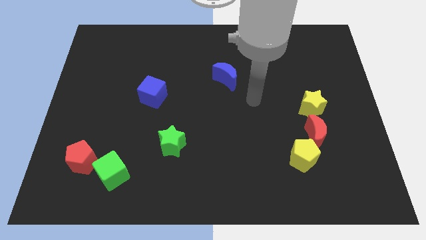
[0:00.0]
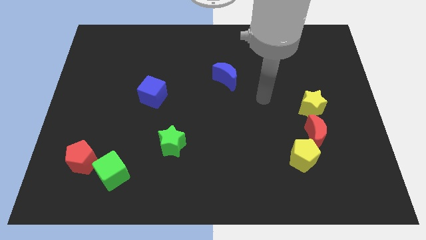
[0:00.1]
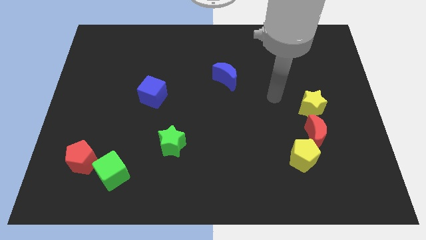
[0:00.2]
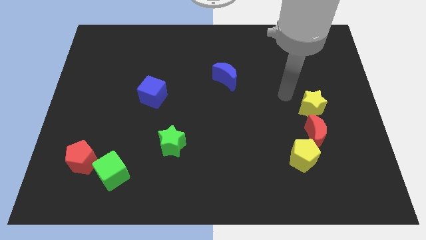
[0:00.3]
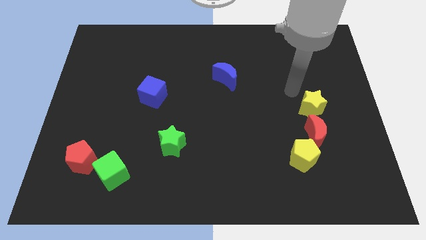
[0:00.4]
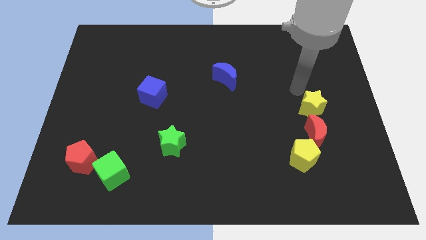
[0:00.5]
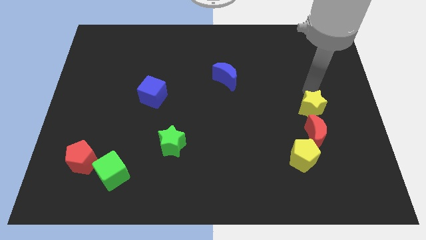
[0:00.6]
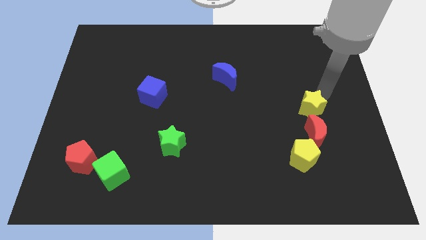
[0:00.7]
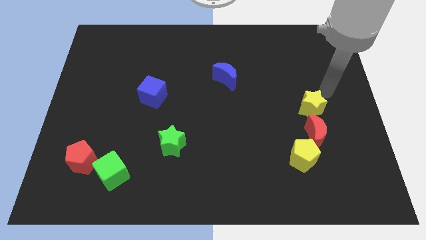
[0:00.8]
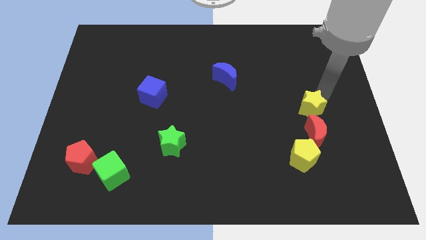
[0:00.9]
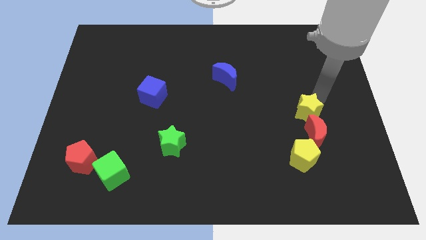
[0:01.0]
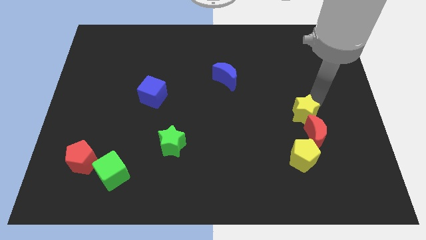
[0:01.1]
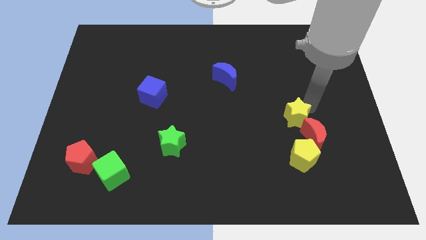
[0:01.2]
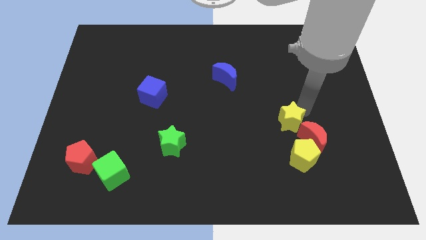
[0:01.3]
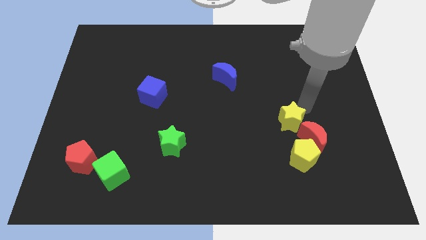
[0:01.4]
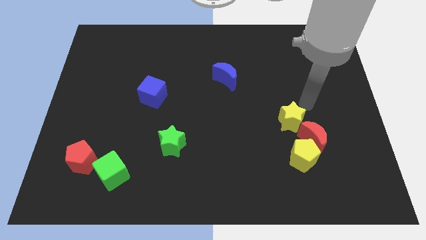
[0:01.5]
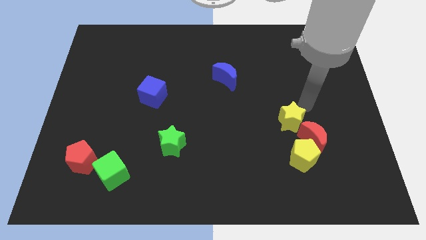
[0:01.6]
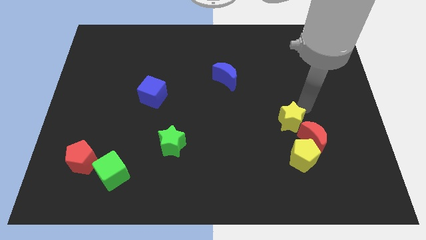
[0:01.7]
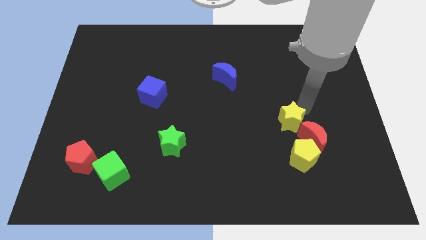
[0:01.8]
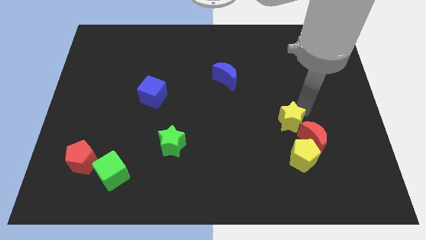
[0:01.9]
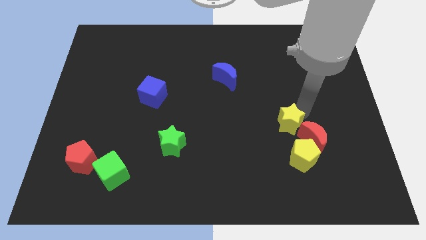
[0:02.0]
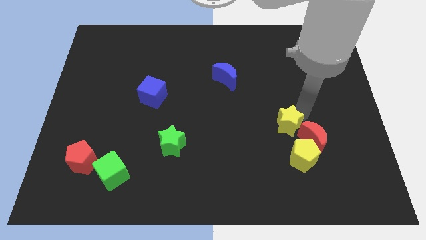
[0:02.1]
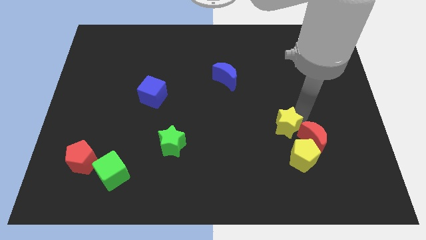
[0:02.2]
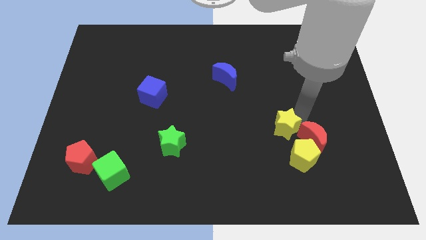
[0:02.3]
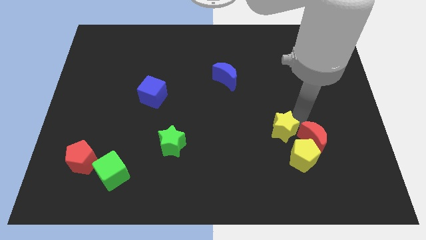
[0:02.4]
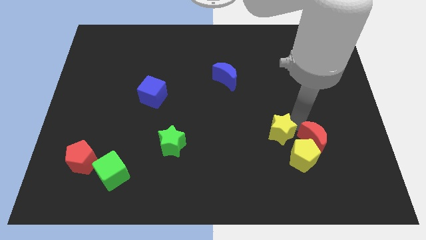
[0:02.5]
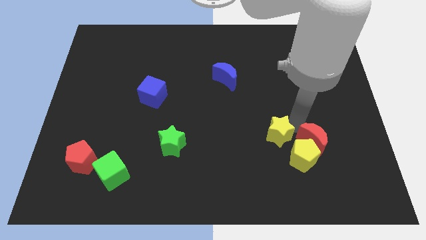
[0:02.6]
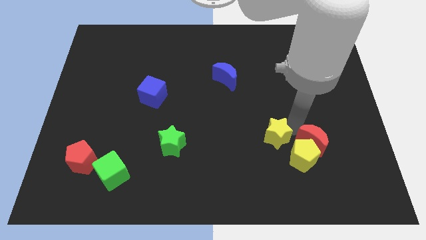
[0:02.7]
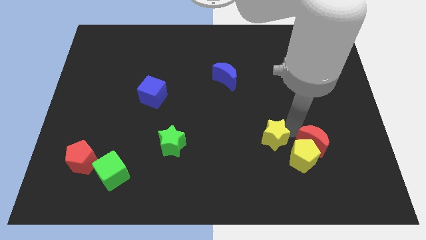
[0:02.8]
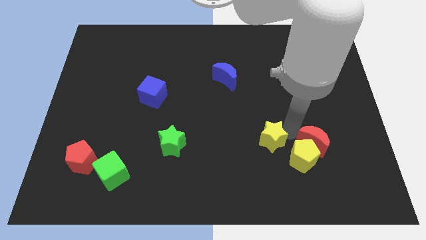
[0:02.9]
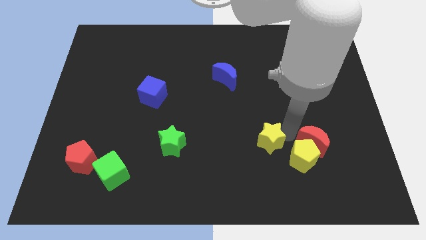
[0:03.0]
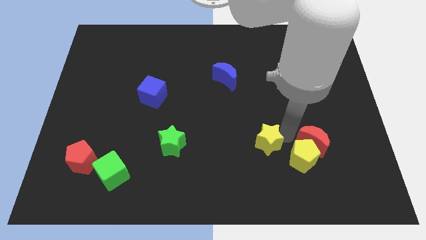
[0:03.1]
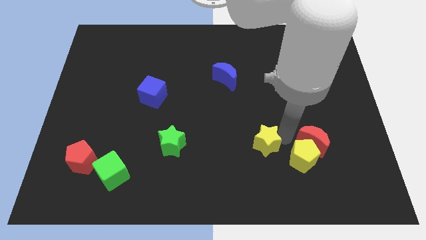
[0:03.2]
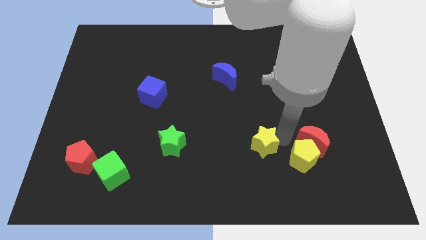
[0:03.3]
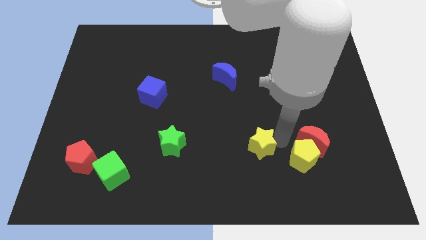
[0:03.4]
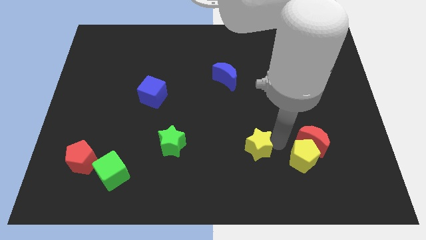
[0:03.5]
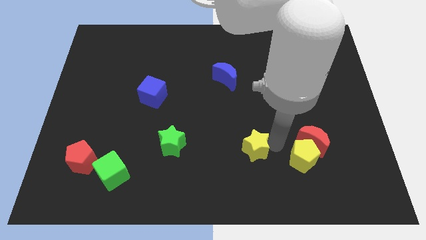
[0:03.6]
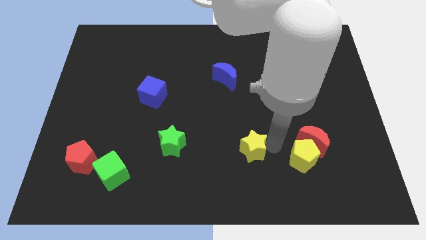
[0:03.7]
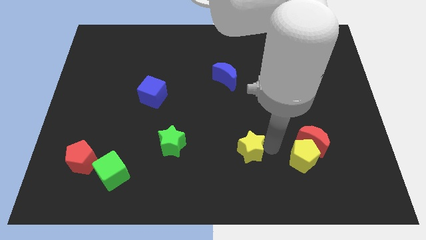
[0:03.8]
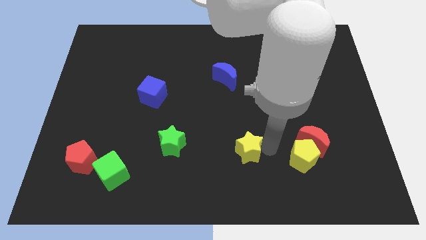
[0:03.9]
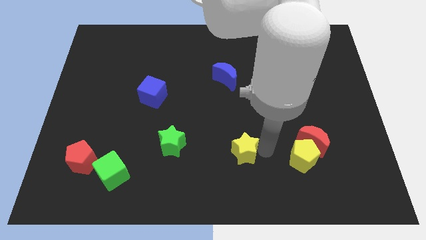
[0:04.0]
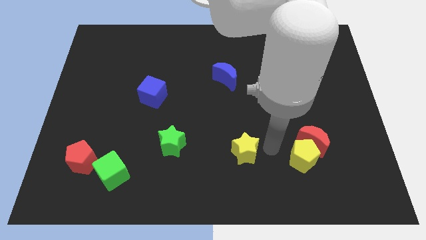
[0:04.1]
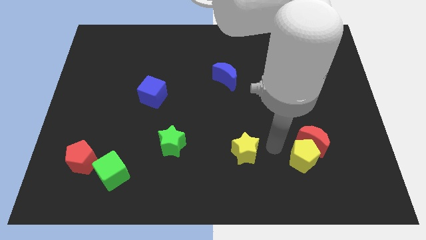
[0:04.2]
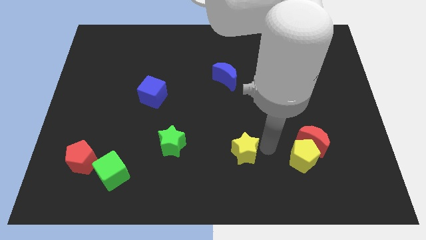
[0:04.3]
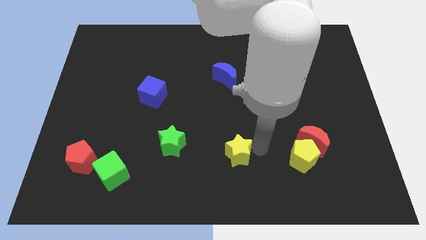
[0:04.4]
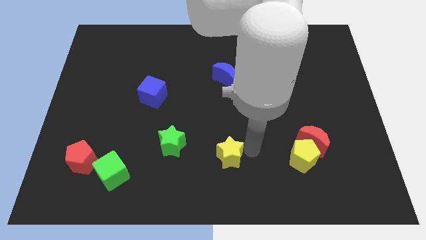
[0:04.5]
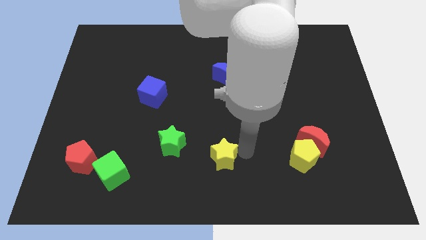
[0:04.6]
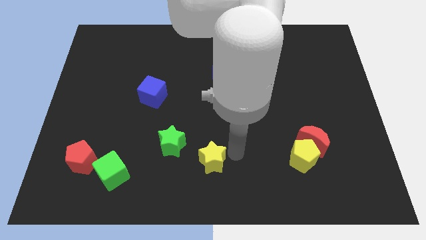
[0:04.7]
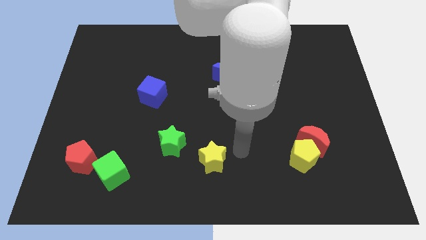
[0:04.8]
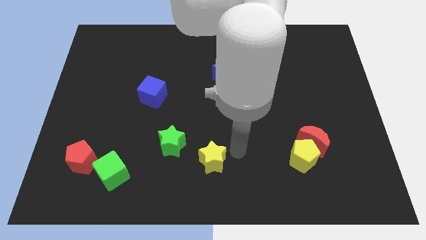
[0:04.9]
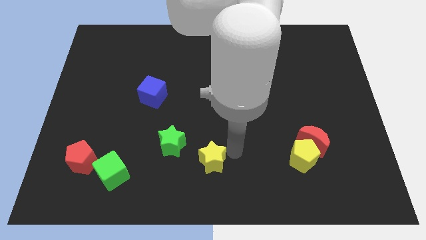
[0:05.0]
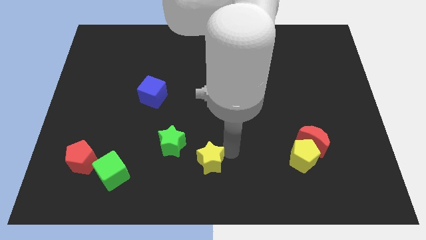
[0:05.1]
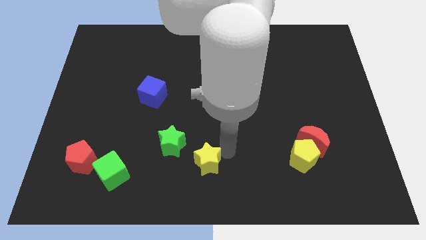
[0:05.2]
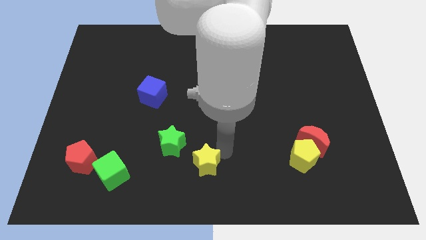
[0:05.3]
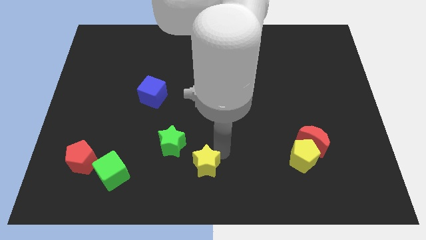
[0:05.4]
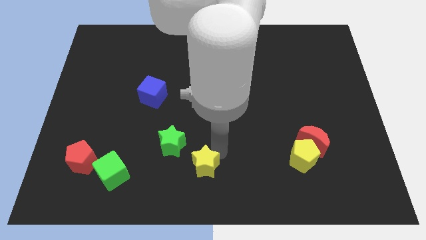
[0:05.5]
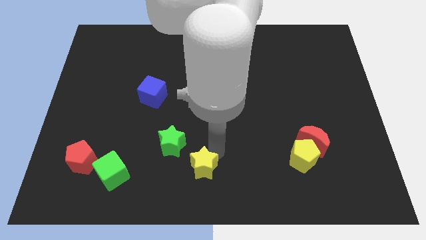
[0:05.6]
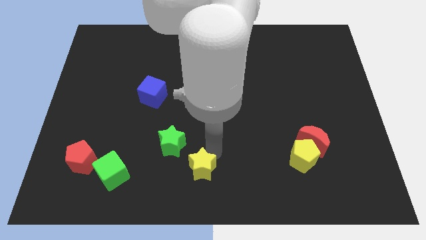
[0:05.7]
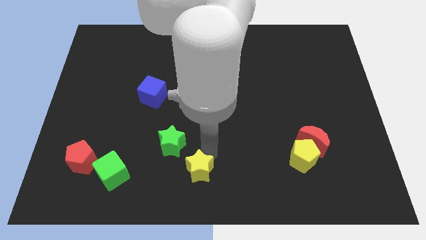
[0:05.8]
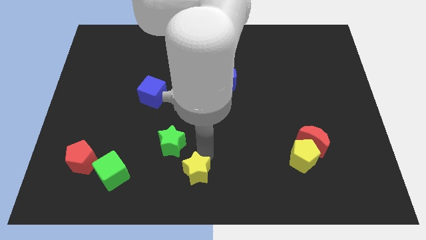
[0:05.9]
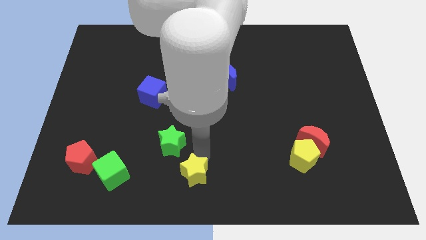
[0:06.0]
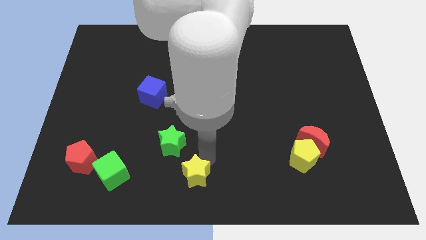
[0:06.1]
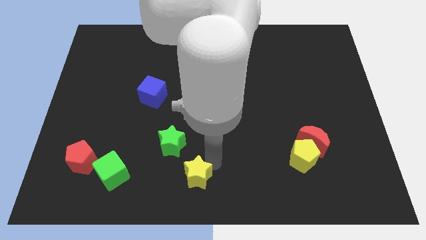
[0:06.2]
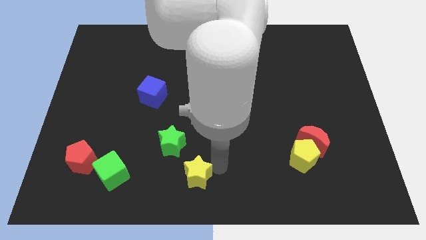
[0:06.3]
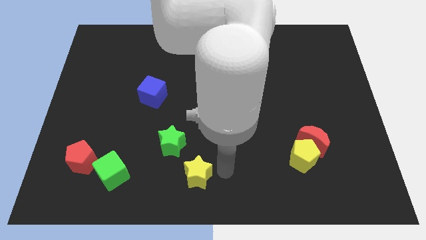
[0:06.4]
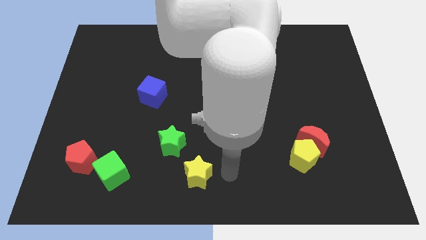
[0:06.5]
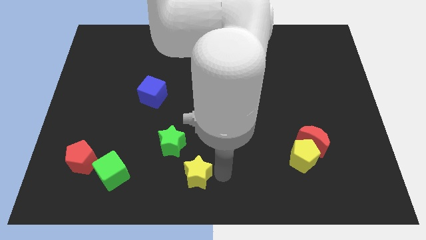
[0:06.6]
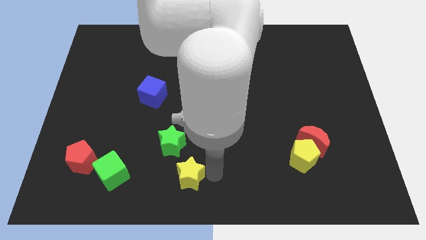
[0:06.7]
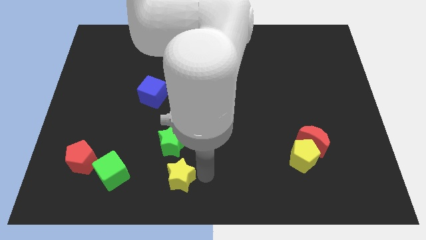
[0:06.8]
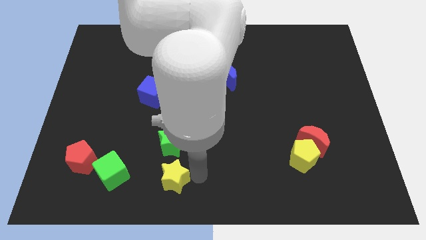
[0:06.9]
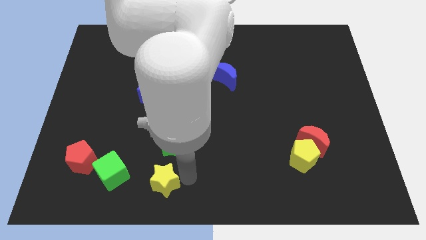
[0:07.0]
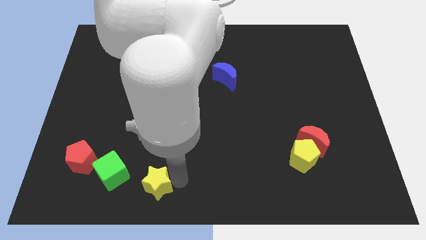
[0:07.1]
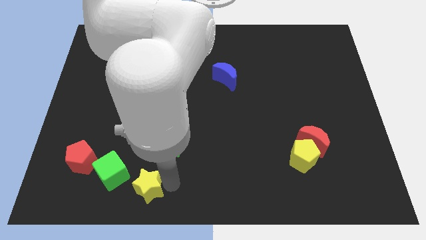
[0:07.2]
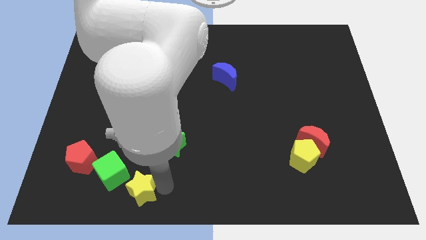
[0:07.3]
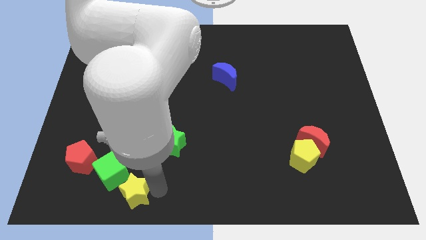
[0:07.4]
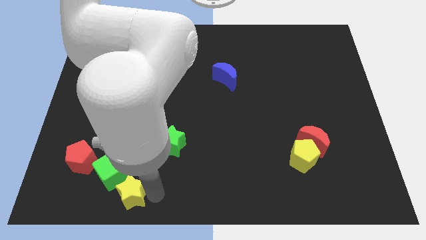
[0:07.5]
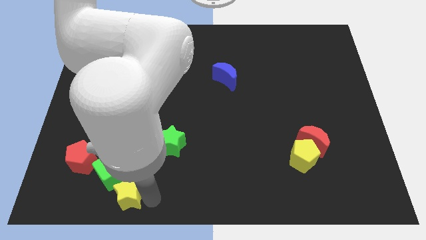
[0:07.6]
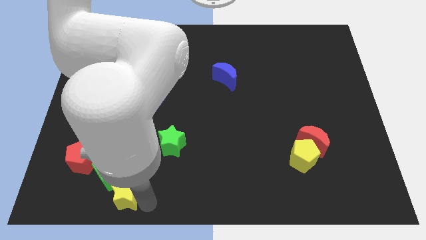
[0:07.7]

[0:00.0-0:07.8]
push the yellow star towards the green cube

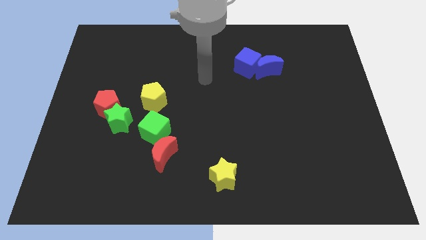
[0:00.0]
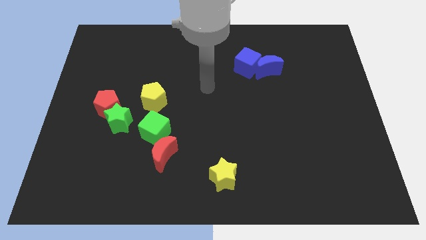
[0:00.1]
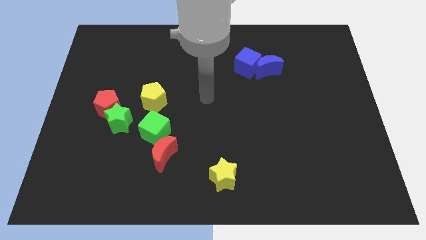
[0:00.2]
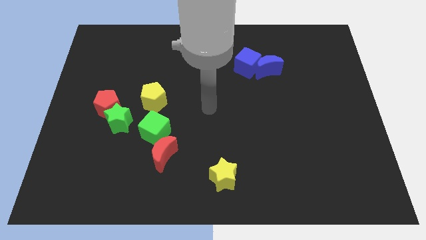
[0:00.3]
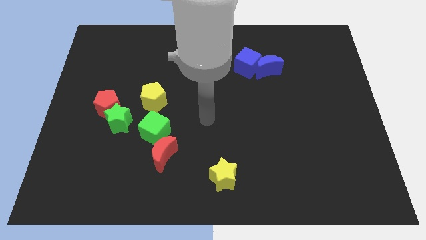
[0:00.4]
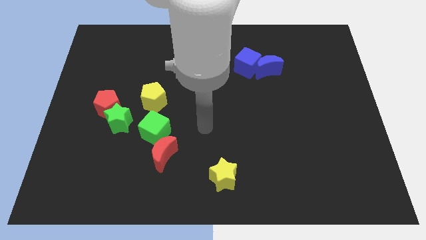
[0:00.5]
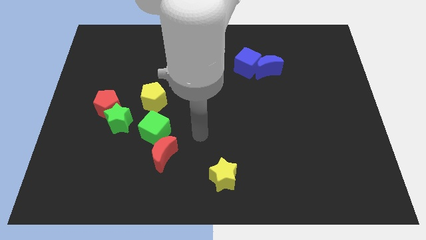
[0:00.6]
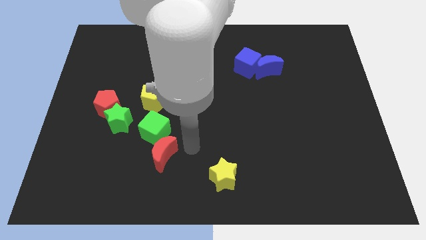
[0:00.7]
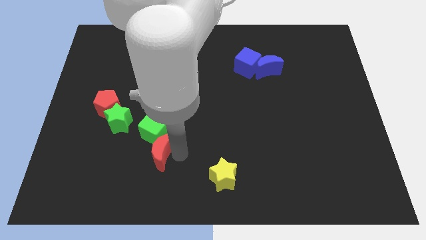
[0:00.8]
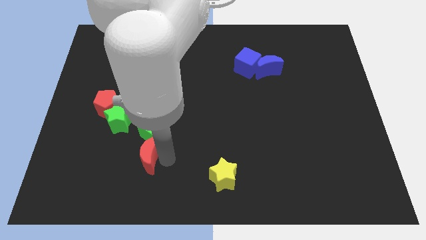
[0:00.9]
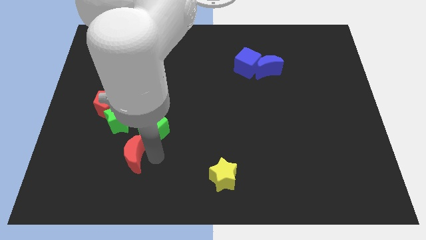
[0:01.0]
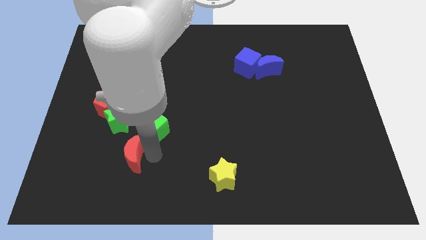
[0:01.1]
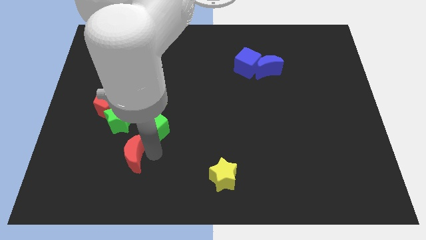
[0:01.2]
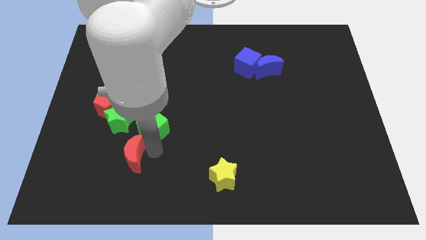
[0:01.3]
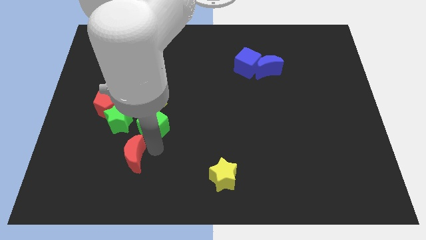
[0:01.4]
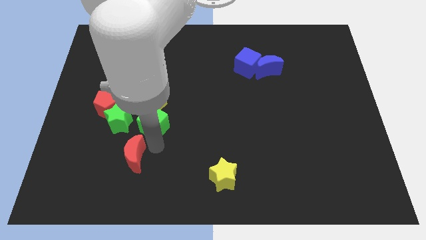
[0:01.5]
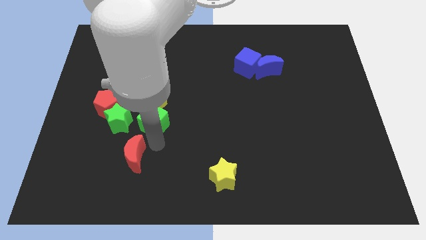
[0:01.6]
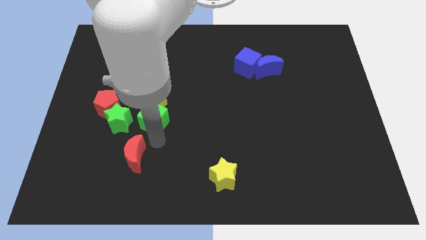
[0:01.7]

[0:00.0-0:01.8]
push the green cube towards the yellow pentagon
